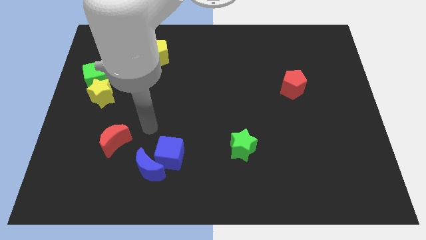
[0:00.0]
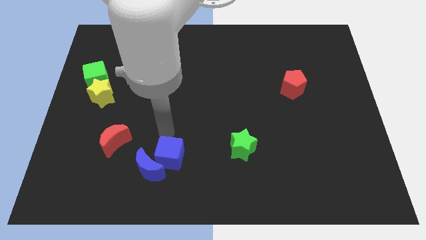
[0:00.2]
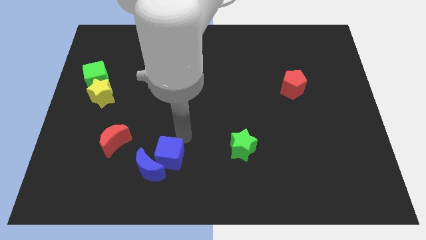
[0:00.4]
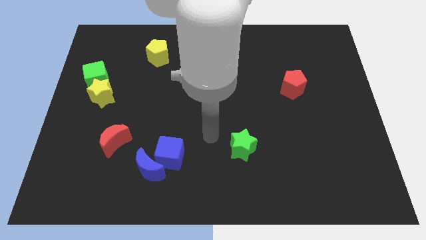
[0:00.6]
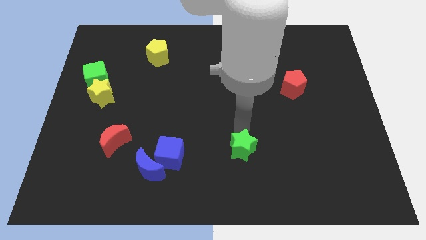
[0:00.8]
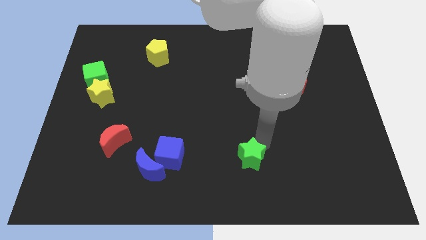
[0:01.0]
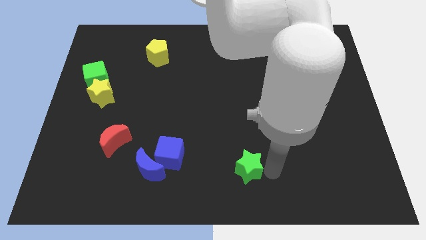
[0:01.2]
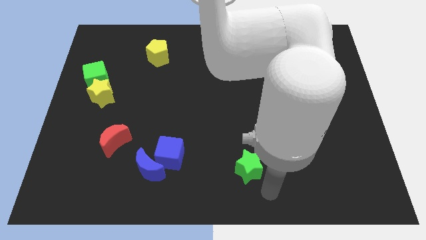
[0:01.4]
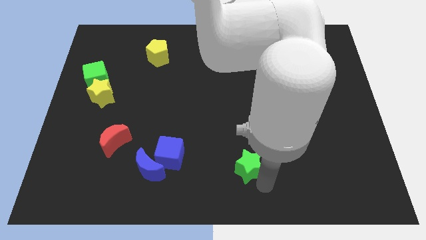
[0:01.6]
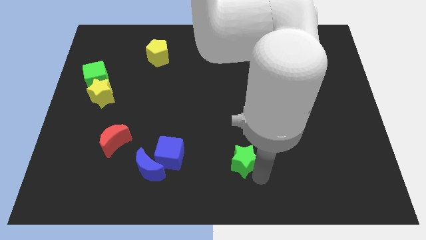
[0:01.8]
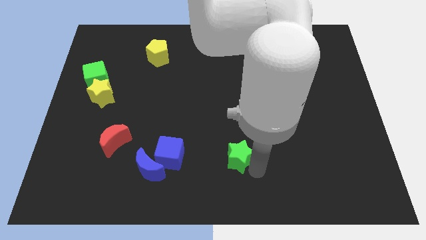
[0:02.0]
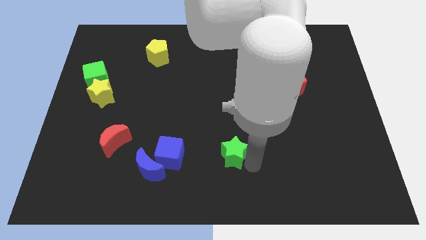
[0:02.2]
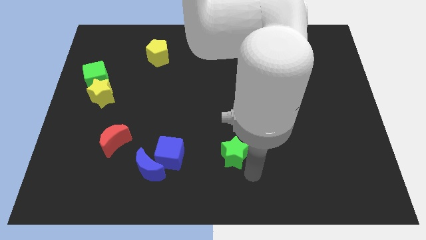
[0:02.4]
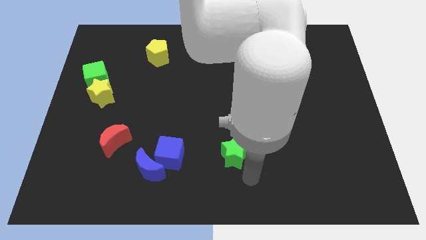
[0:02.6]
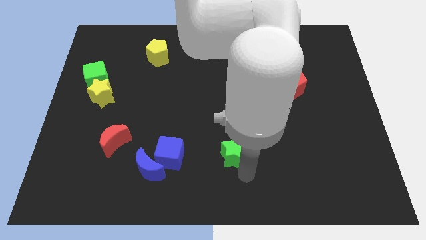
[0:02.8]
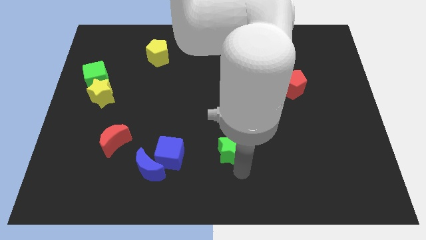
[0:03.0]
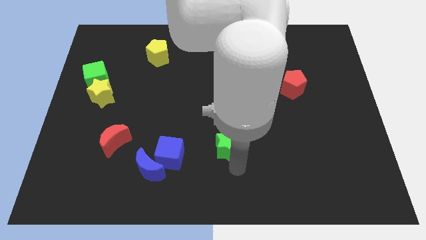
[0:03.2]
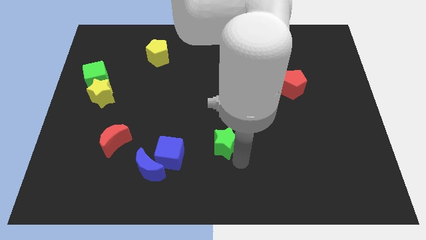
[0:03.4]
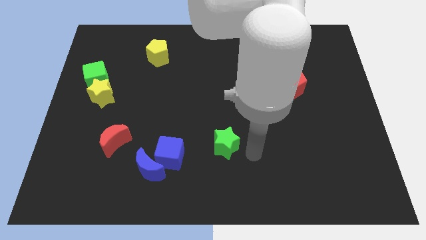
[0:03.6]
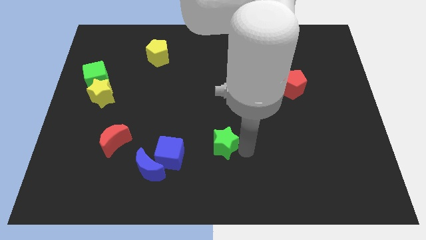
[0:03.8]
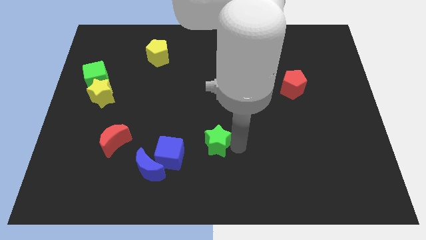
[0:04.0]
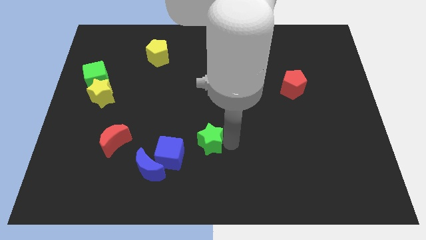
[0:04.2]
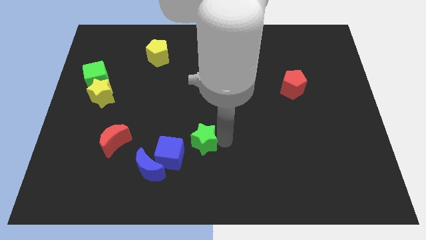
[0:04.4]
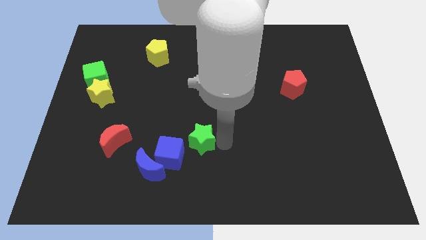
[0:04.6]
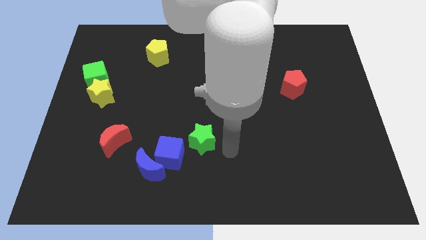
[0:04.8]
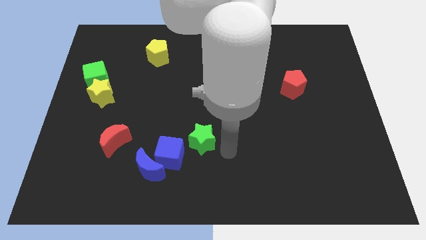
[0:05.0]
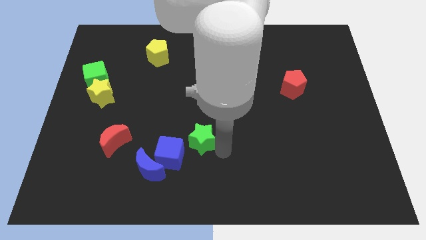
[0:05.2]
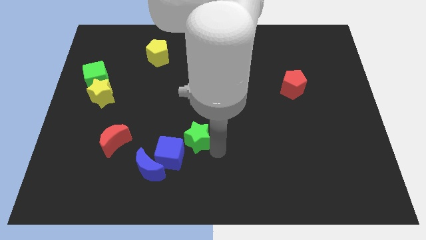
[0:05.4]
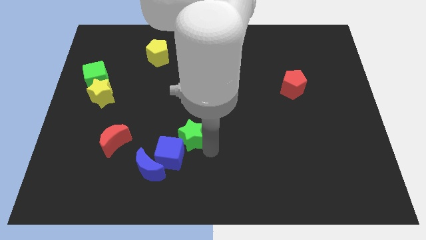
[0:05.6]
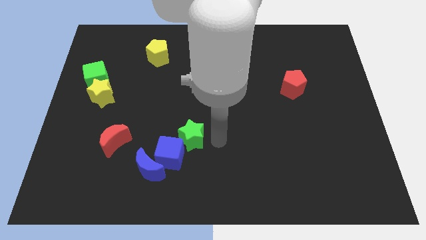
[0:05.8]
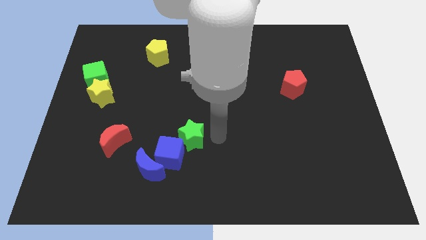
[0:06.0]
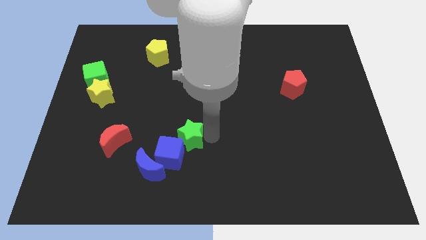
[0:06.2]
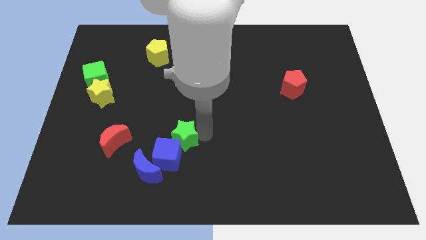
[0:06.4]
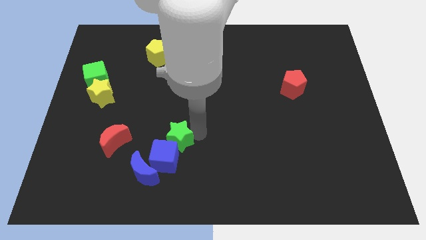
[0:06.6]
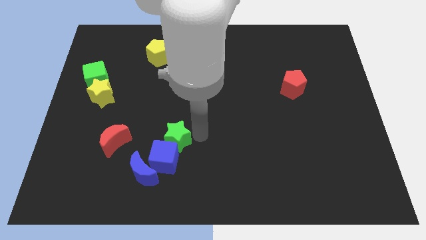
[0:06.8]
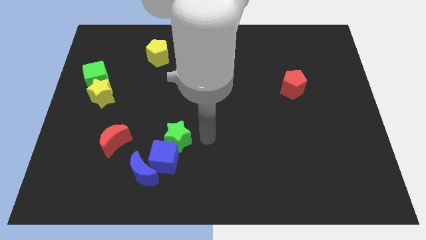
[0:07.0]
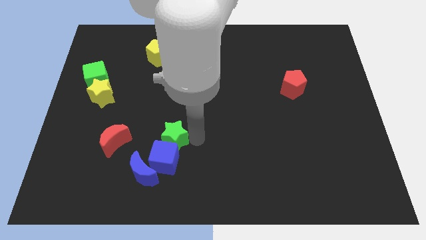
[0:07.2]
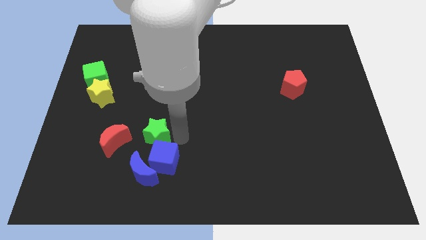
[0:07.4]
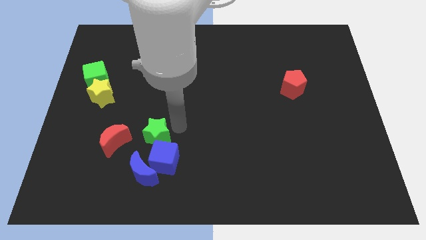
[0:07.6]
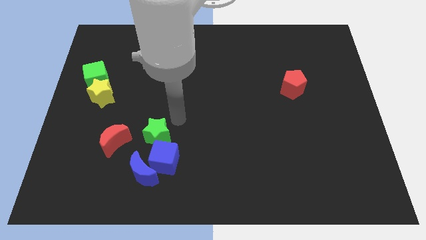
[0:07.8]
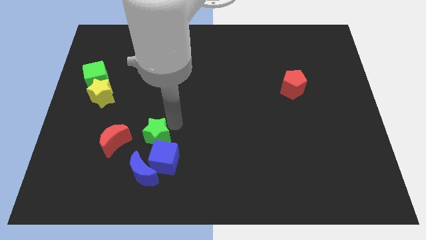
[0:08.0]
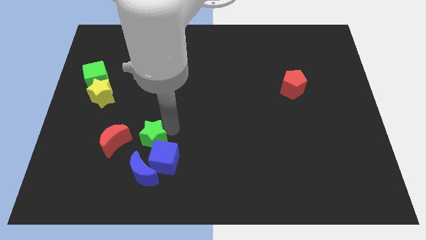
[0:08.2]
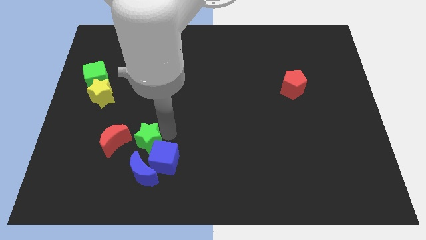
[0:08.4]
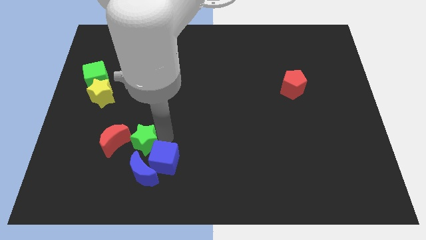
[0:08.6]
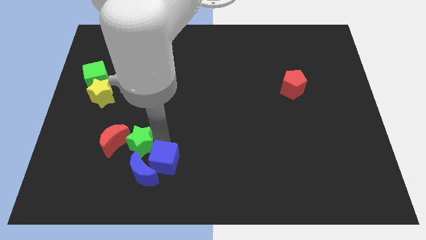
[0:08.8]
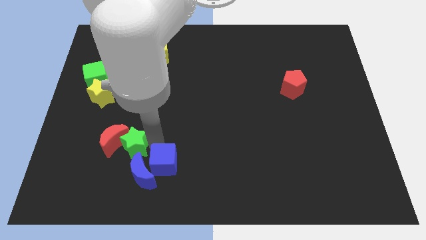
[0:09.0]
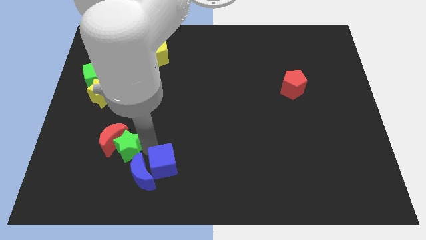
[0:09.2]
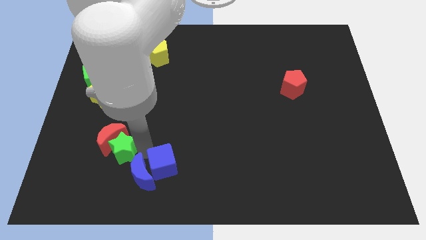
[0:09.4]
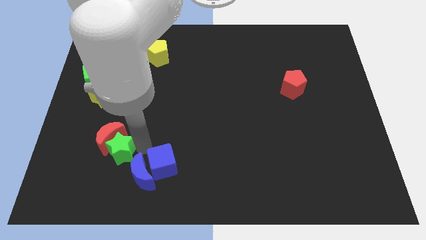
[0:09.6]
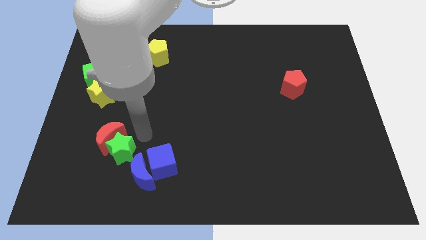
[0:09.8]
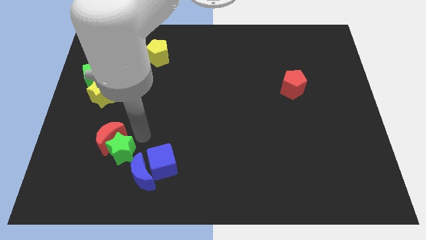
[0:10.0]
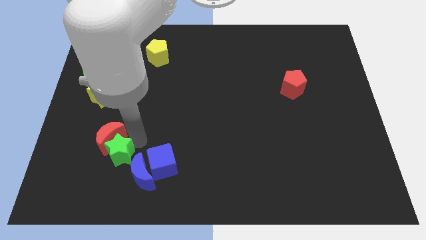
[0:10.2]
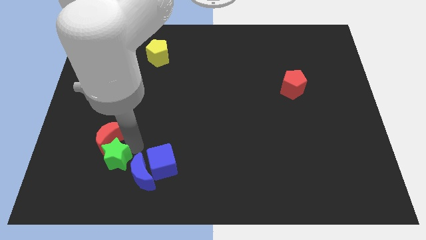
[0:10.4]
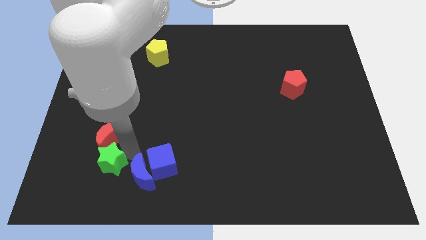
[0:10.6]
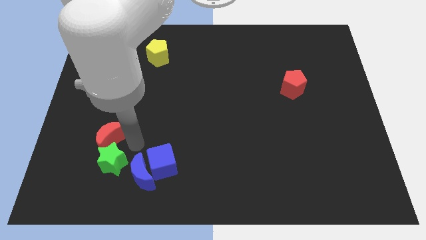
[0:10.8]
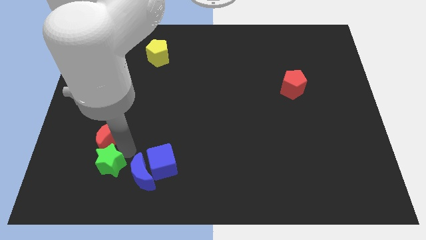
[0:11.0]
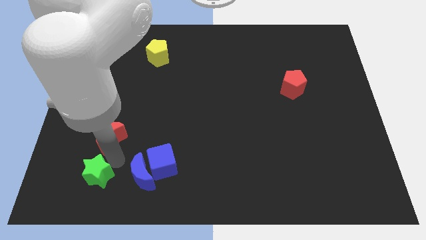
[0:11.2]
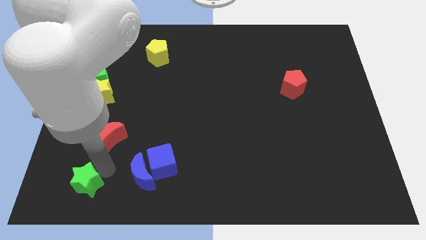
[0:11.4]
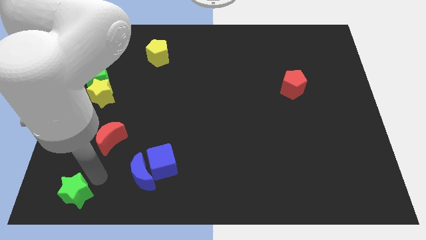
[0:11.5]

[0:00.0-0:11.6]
push the green star to the bottom left corner
